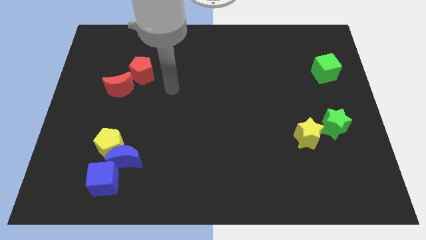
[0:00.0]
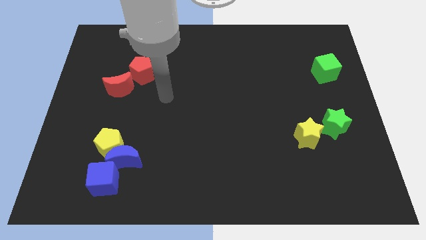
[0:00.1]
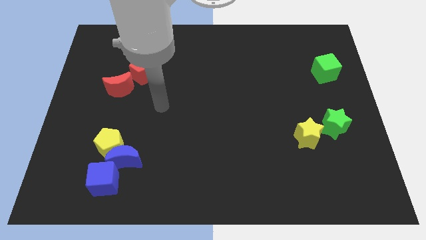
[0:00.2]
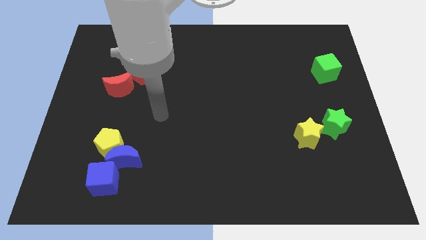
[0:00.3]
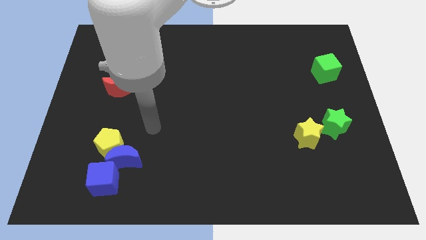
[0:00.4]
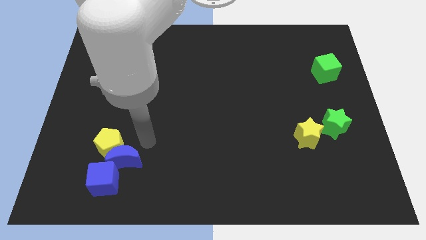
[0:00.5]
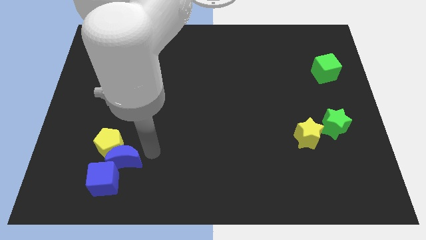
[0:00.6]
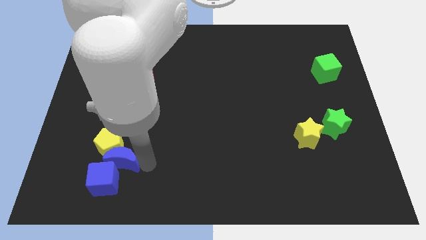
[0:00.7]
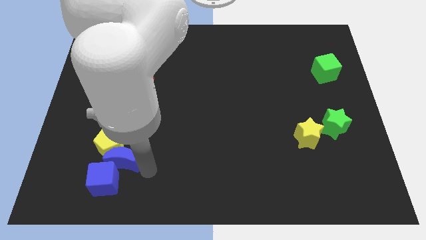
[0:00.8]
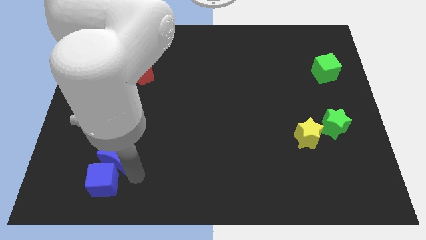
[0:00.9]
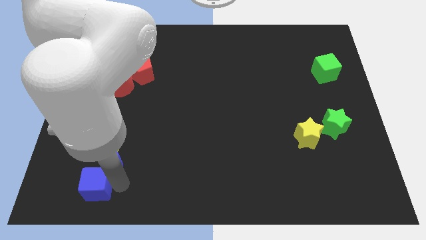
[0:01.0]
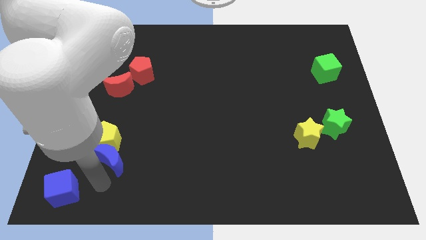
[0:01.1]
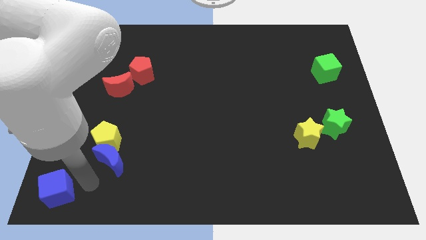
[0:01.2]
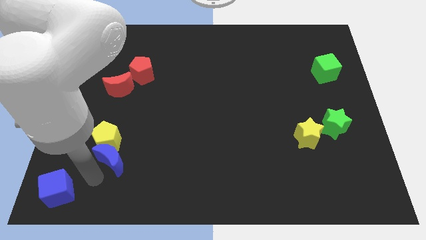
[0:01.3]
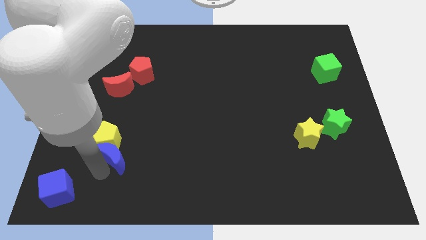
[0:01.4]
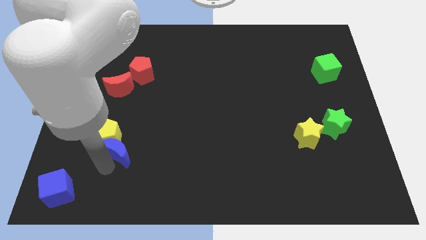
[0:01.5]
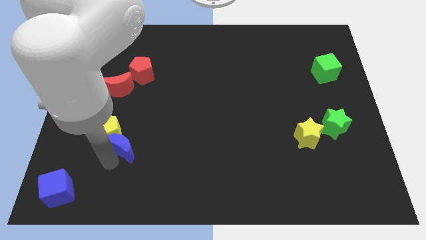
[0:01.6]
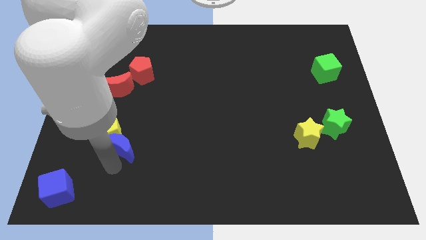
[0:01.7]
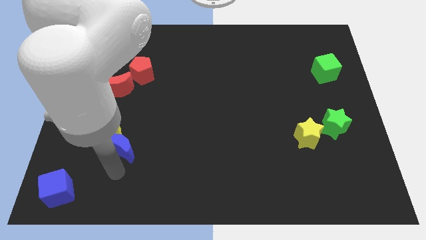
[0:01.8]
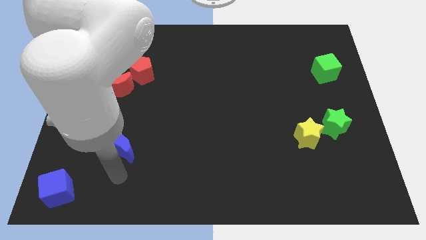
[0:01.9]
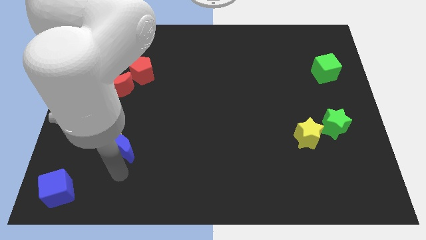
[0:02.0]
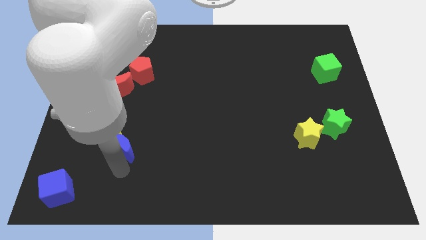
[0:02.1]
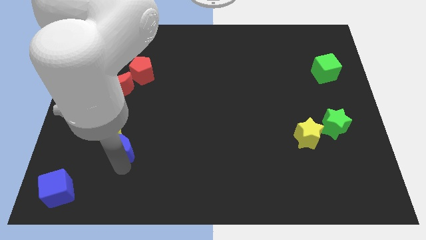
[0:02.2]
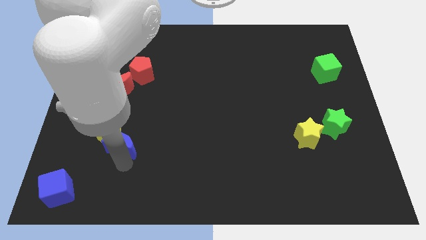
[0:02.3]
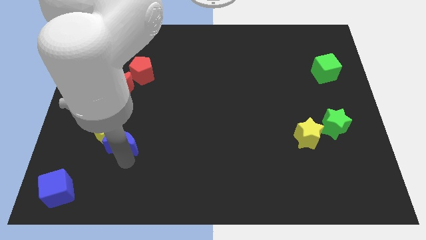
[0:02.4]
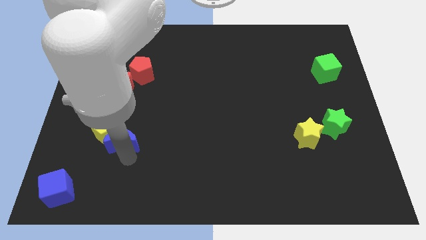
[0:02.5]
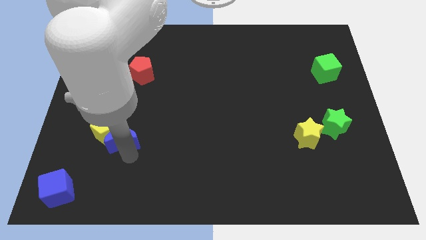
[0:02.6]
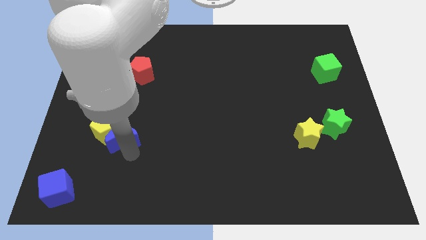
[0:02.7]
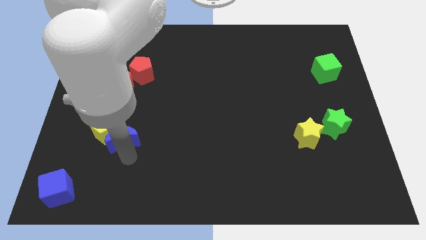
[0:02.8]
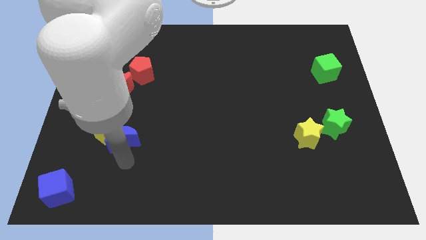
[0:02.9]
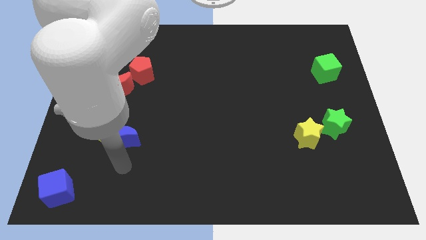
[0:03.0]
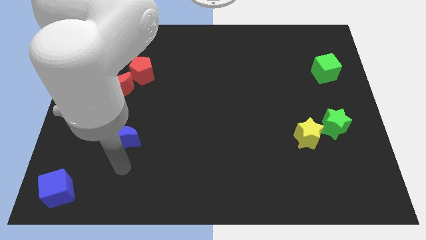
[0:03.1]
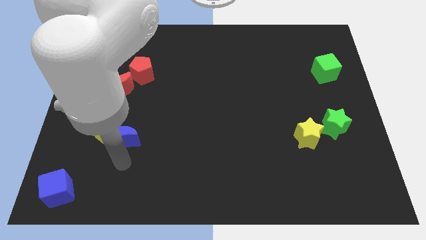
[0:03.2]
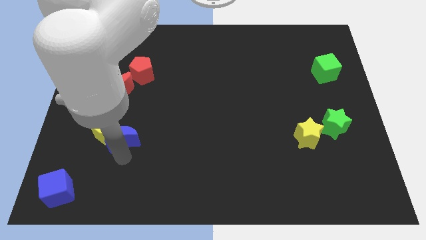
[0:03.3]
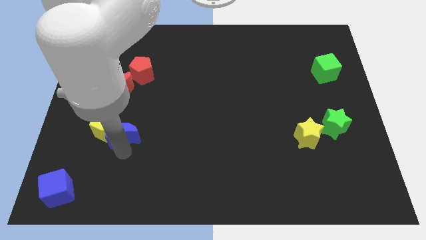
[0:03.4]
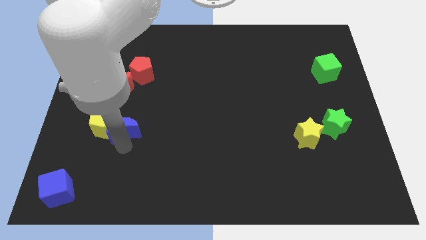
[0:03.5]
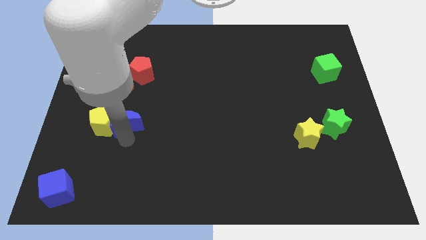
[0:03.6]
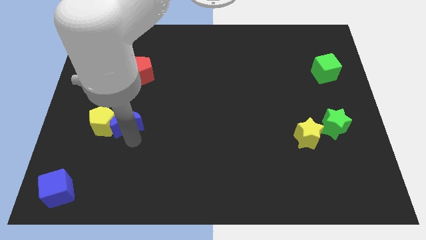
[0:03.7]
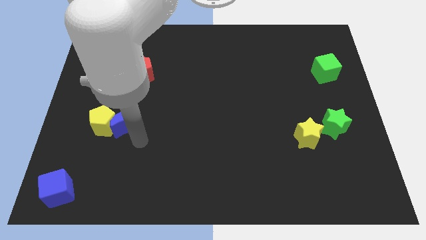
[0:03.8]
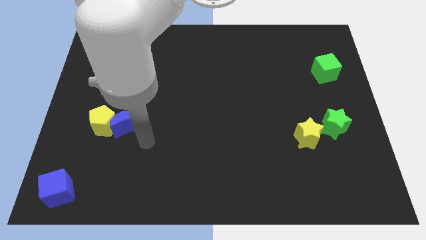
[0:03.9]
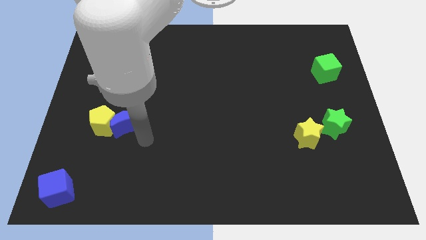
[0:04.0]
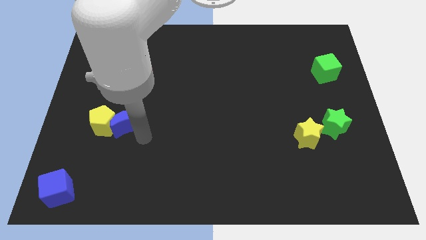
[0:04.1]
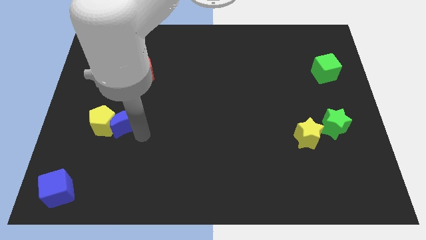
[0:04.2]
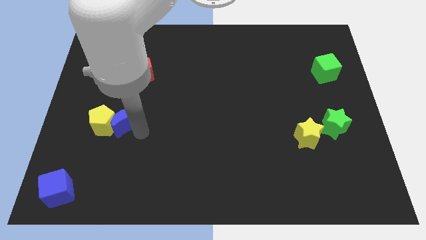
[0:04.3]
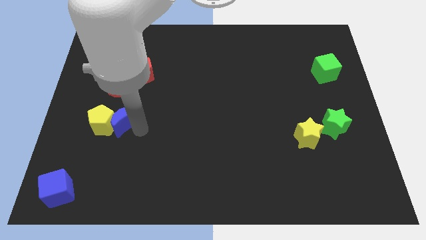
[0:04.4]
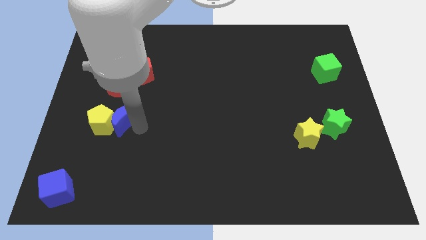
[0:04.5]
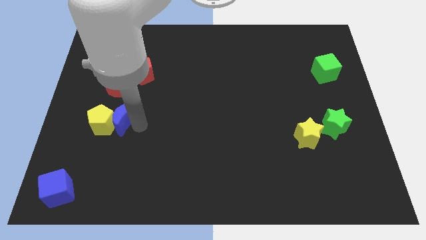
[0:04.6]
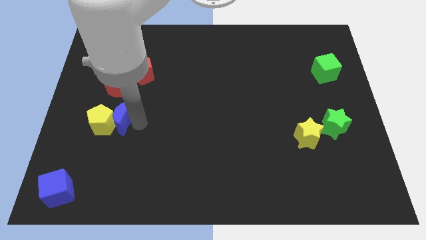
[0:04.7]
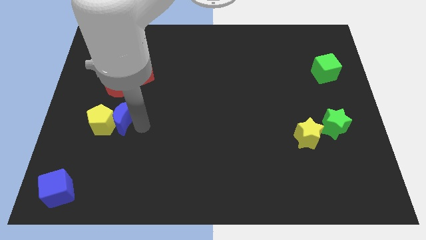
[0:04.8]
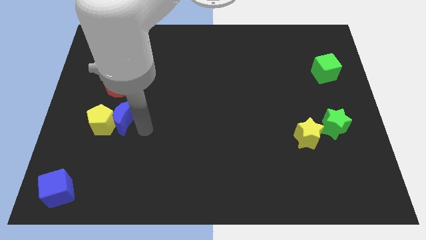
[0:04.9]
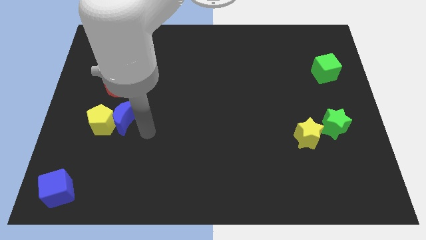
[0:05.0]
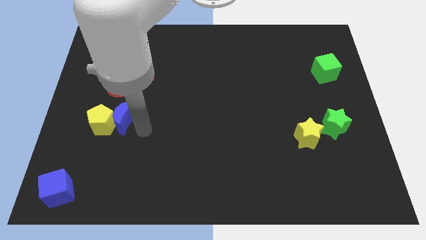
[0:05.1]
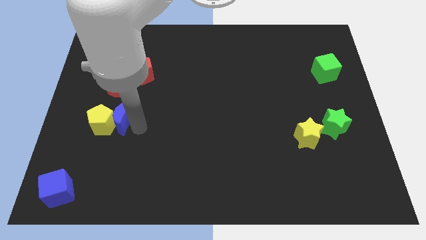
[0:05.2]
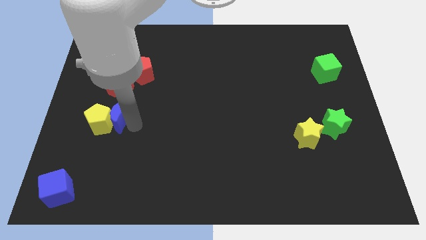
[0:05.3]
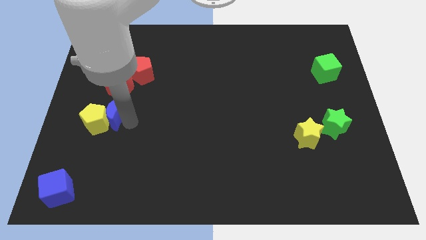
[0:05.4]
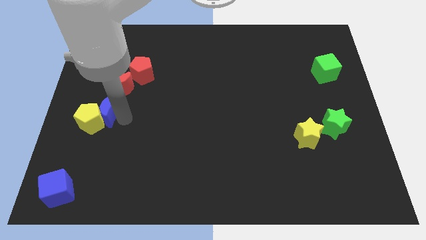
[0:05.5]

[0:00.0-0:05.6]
put the blue moon diagonally down and to the left of the red moon

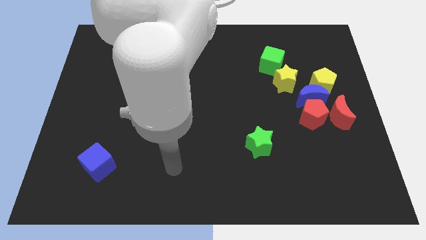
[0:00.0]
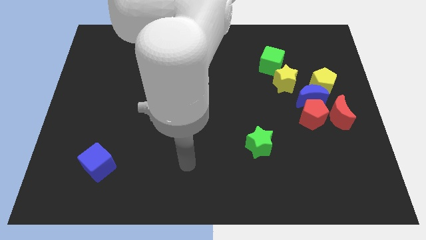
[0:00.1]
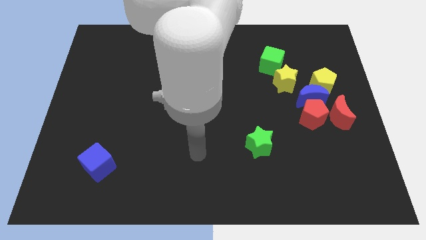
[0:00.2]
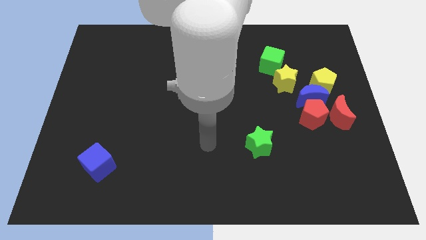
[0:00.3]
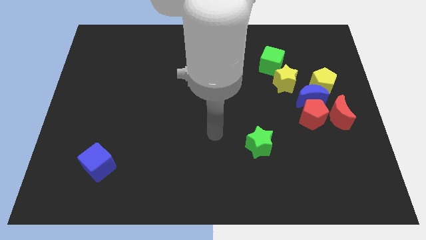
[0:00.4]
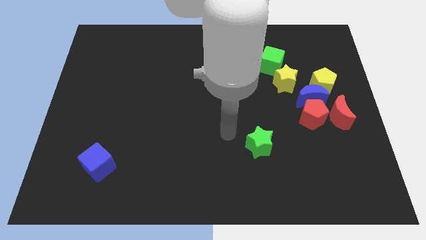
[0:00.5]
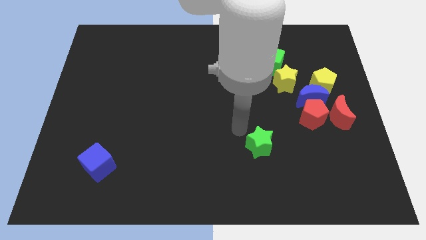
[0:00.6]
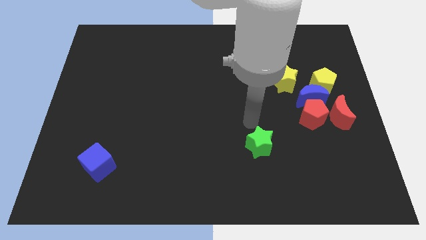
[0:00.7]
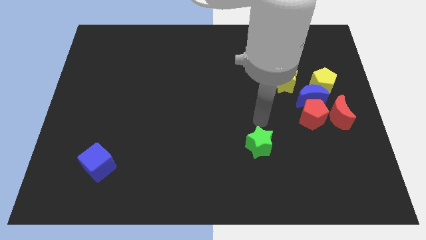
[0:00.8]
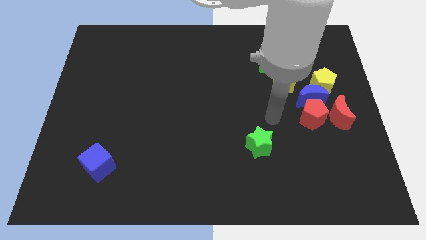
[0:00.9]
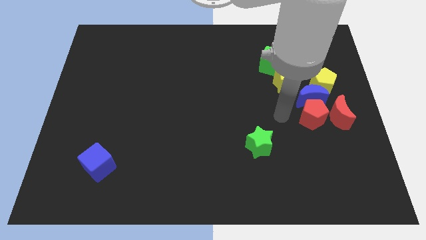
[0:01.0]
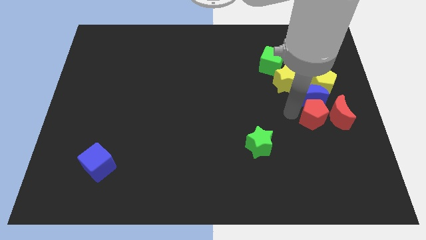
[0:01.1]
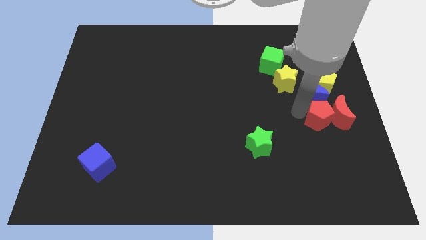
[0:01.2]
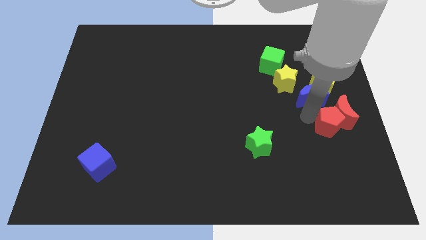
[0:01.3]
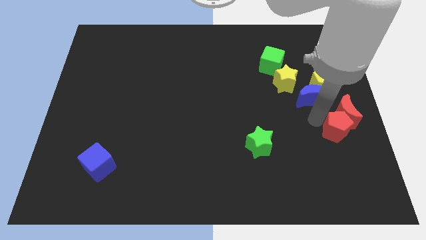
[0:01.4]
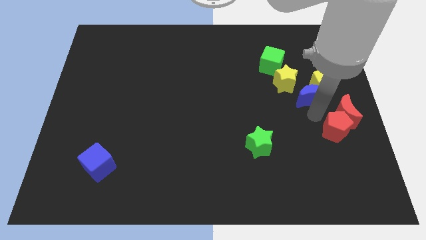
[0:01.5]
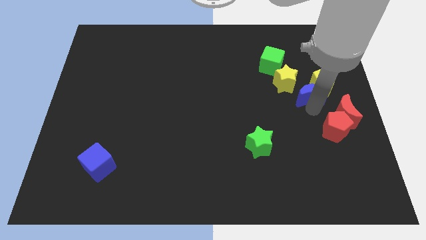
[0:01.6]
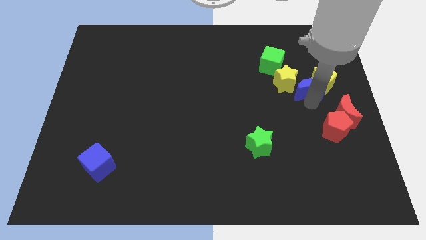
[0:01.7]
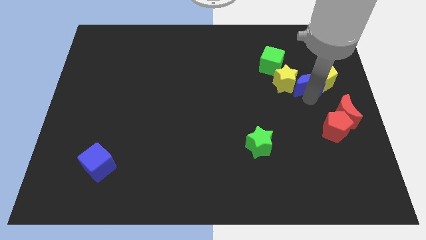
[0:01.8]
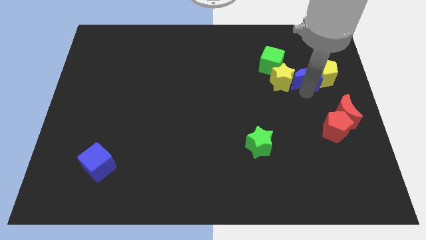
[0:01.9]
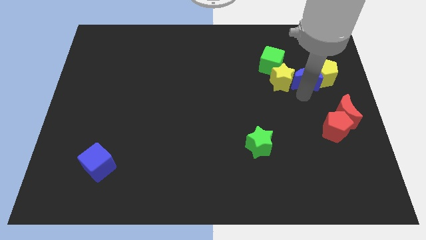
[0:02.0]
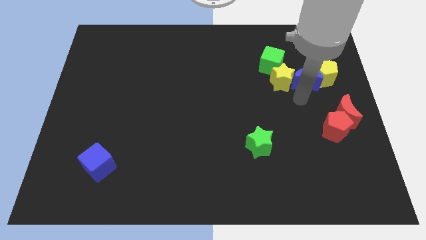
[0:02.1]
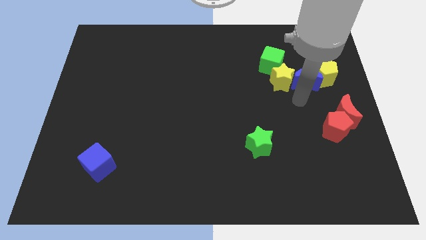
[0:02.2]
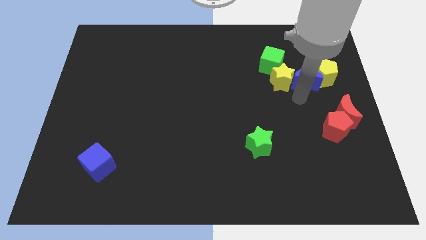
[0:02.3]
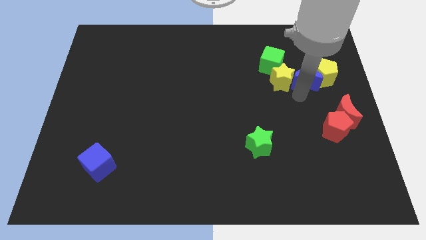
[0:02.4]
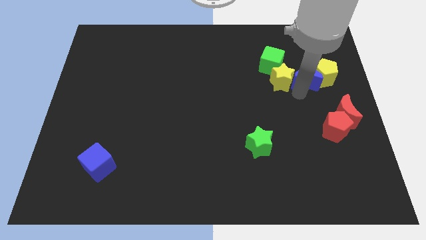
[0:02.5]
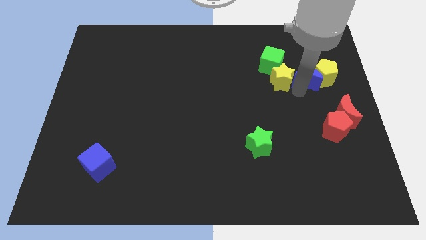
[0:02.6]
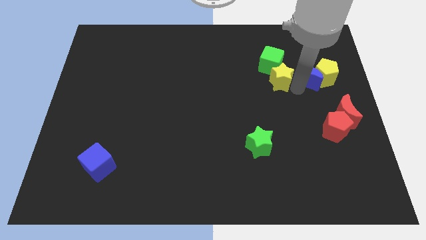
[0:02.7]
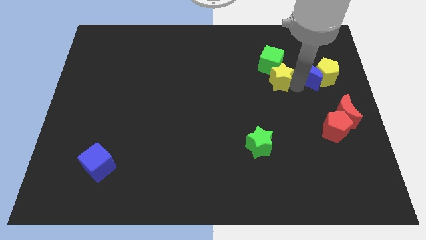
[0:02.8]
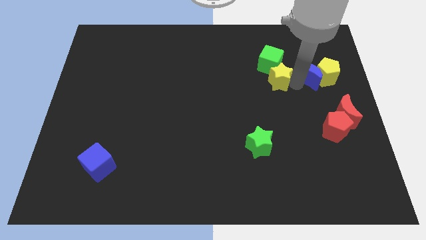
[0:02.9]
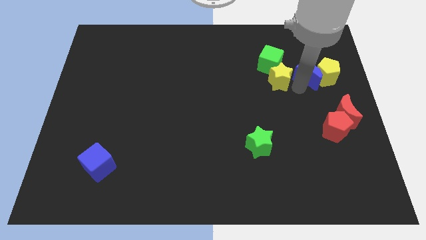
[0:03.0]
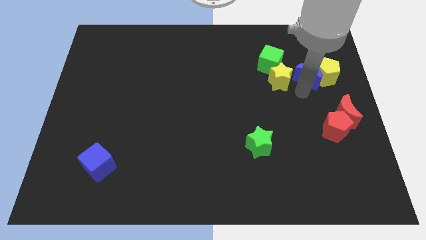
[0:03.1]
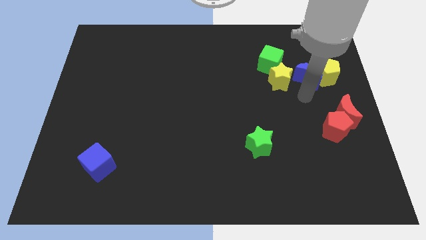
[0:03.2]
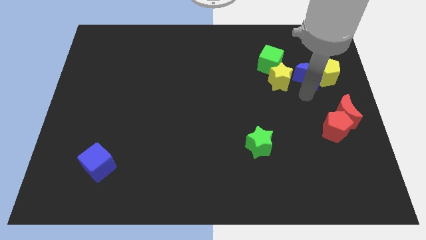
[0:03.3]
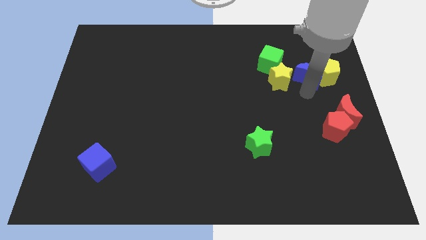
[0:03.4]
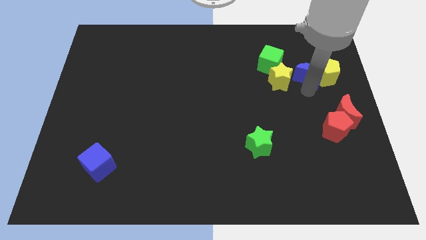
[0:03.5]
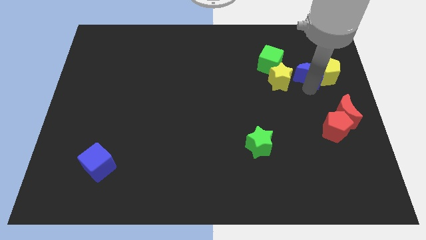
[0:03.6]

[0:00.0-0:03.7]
slide the blue moon to the right of the green cube
